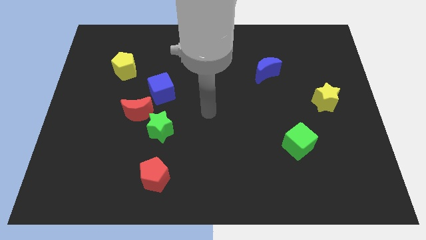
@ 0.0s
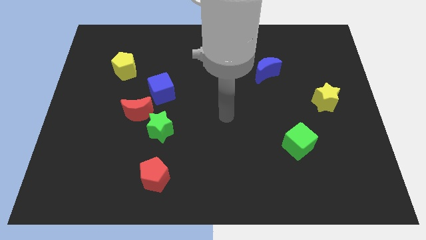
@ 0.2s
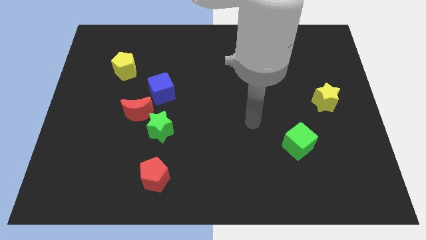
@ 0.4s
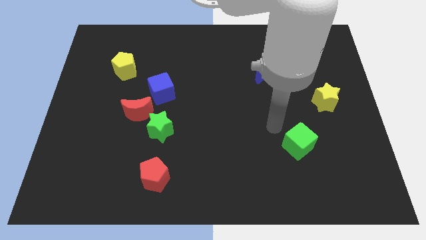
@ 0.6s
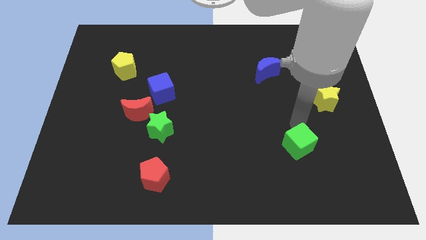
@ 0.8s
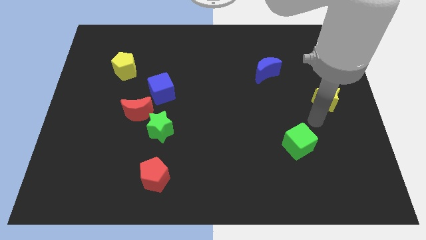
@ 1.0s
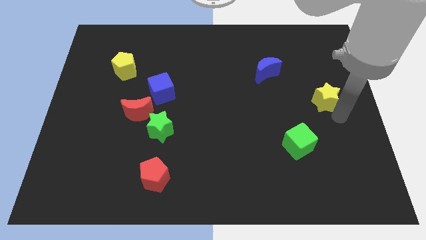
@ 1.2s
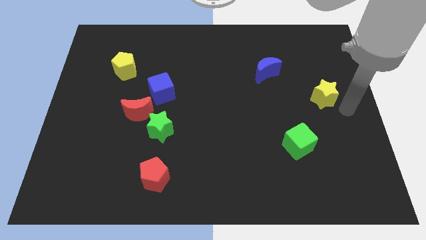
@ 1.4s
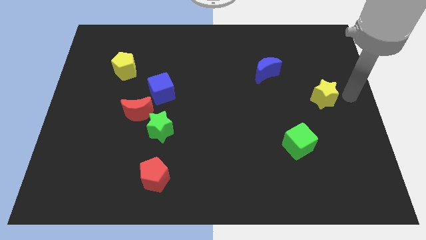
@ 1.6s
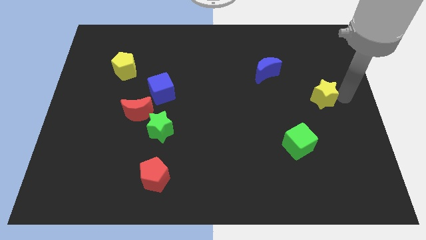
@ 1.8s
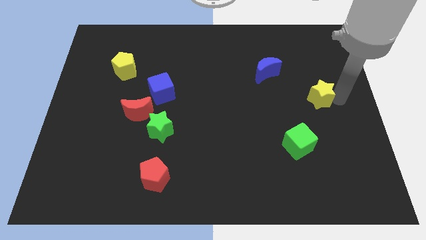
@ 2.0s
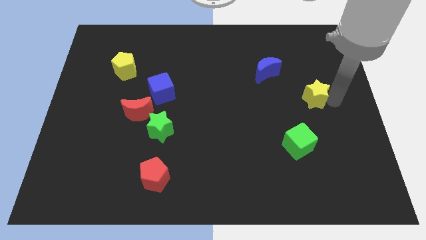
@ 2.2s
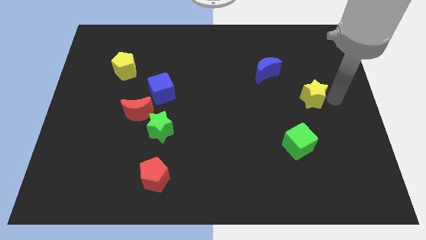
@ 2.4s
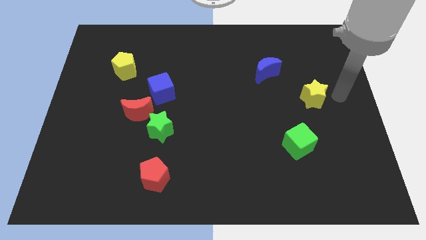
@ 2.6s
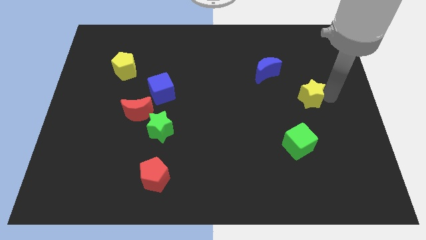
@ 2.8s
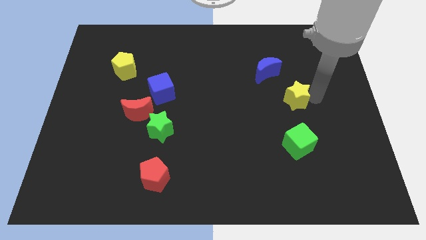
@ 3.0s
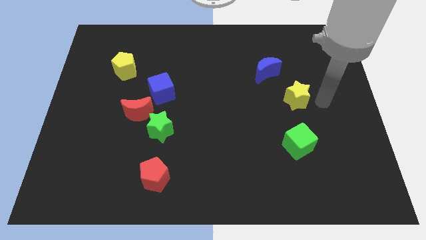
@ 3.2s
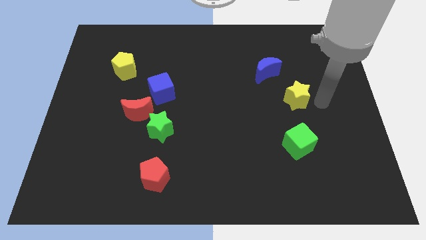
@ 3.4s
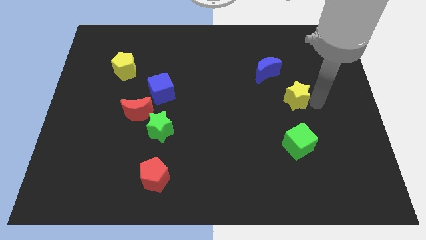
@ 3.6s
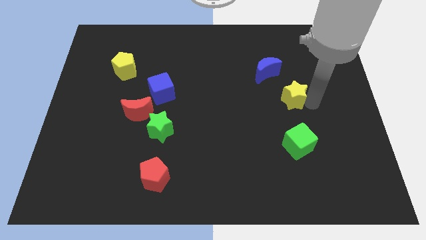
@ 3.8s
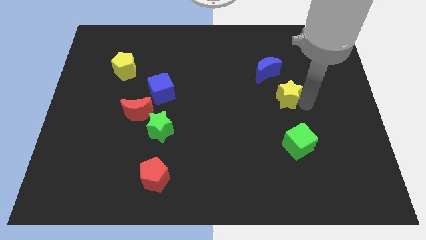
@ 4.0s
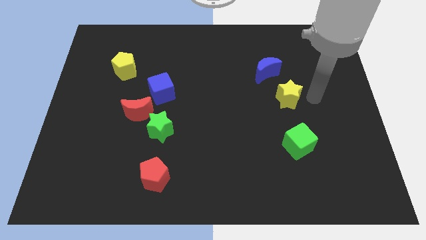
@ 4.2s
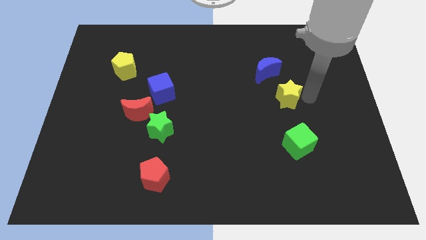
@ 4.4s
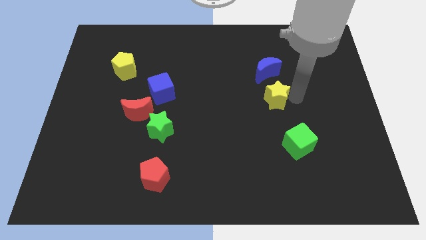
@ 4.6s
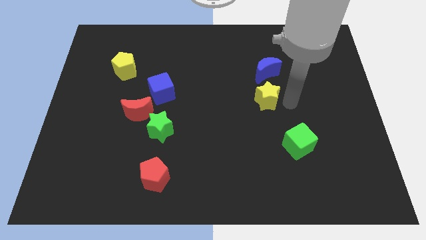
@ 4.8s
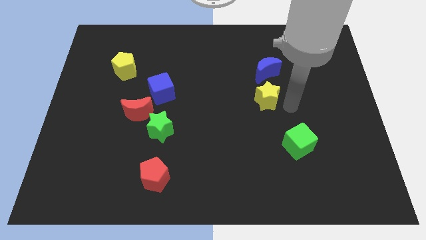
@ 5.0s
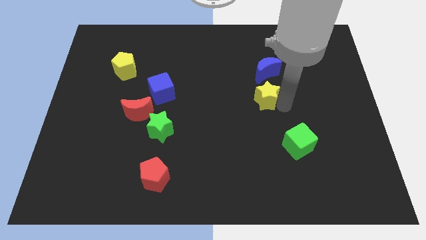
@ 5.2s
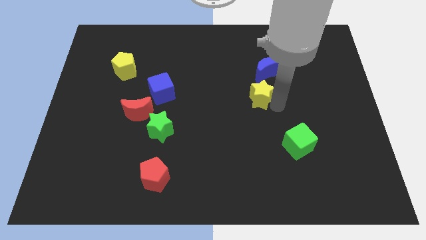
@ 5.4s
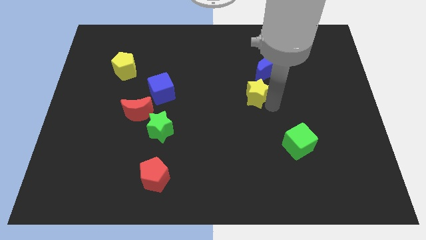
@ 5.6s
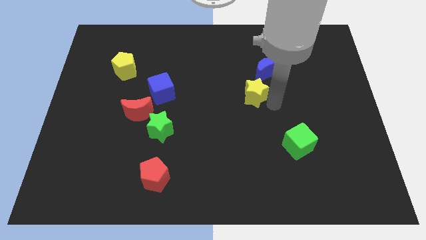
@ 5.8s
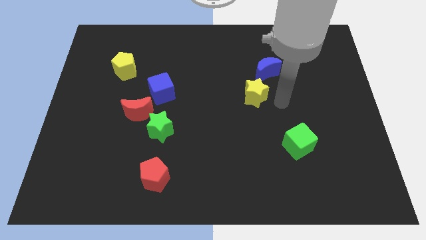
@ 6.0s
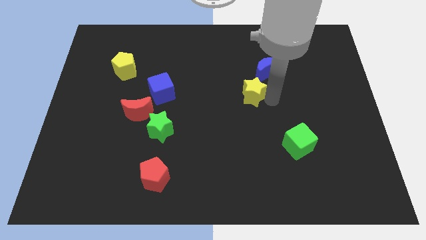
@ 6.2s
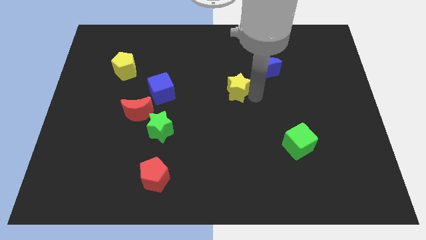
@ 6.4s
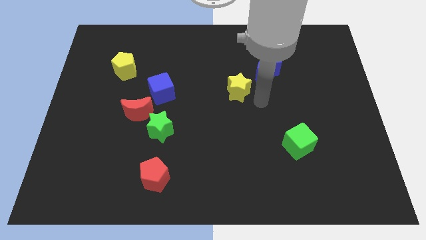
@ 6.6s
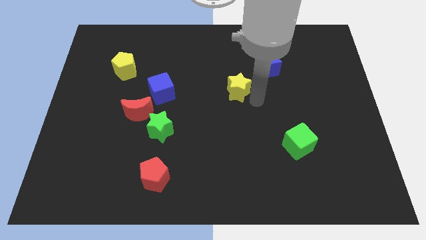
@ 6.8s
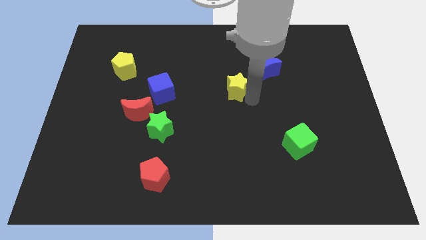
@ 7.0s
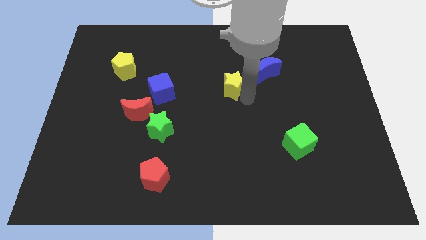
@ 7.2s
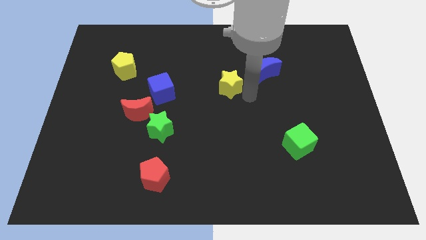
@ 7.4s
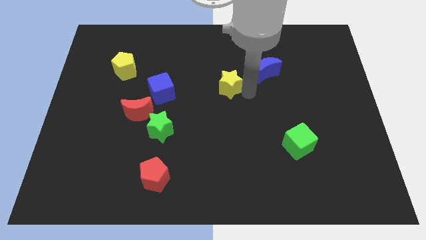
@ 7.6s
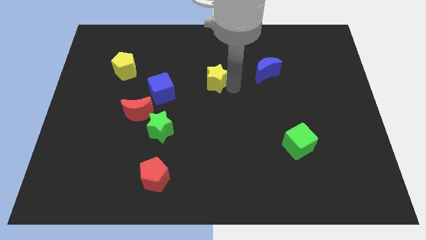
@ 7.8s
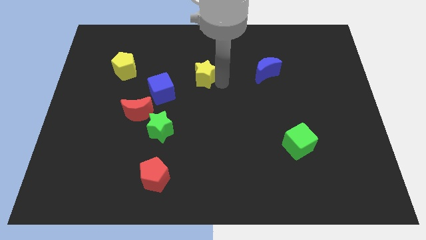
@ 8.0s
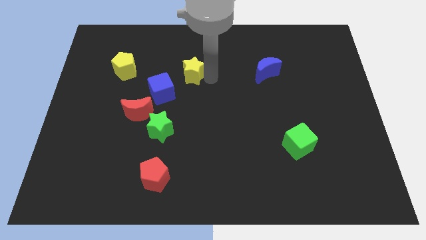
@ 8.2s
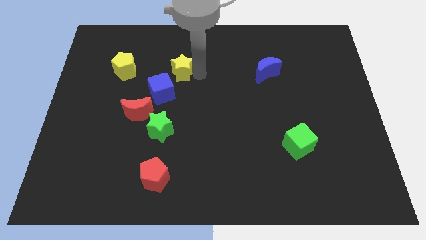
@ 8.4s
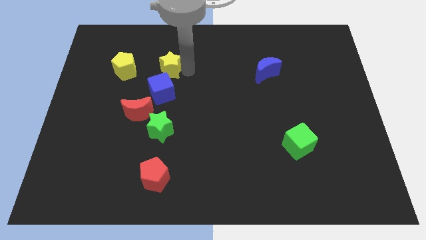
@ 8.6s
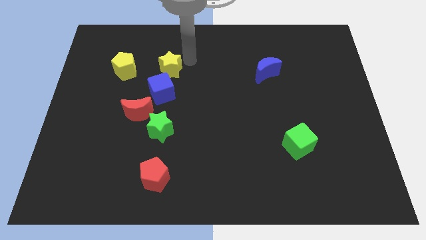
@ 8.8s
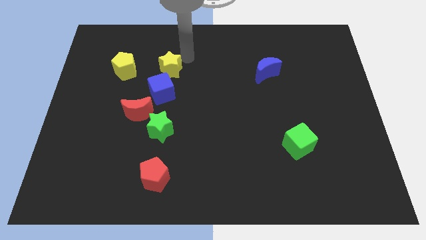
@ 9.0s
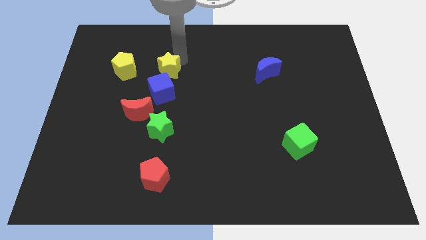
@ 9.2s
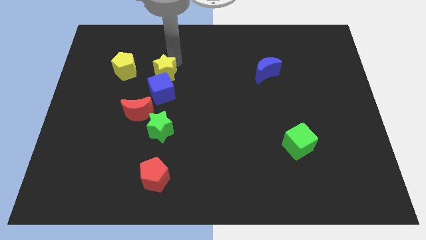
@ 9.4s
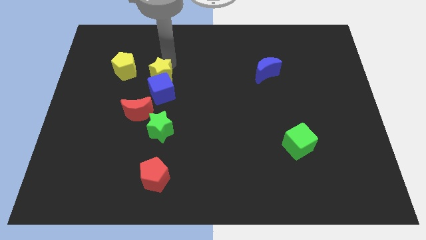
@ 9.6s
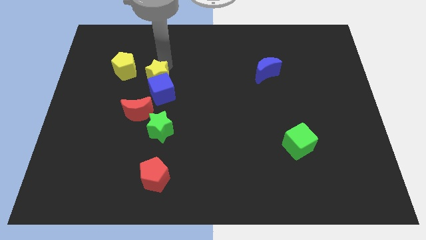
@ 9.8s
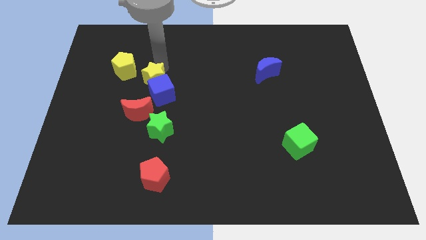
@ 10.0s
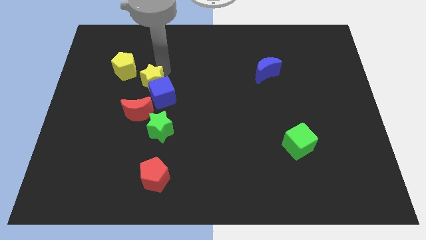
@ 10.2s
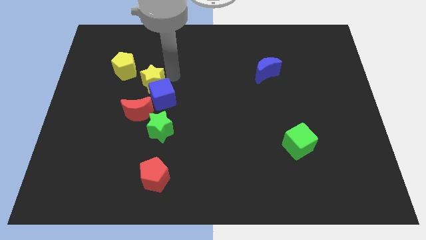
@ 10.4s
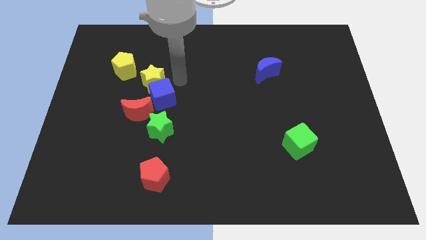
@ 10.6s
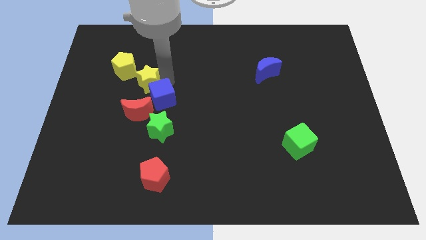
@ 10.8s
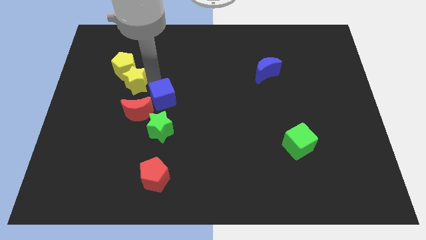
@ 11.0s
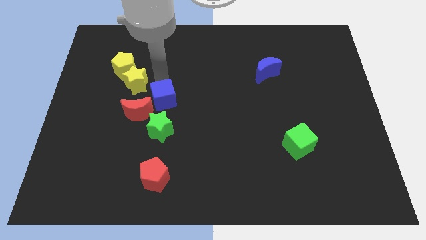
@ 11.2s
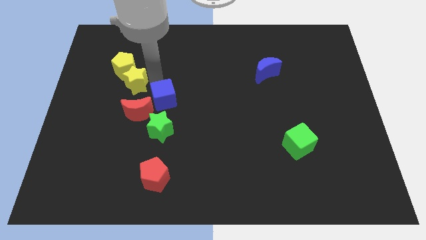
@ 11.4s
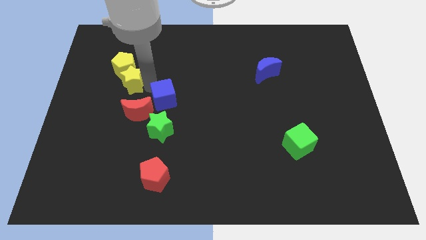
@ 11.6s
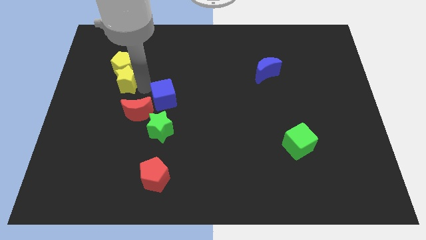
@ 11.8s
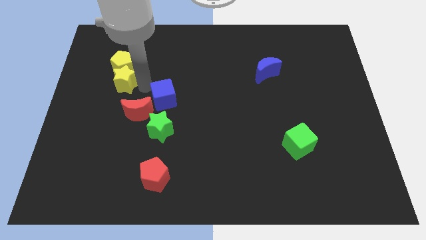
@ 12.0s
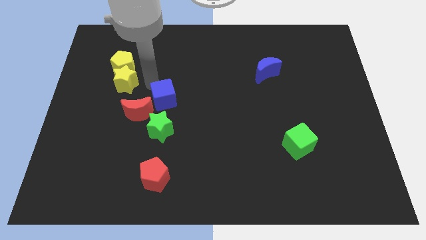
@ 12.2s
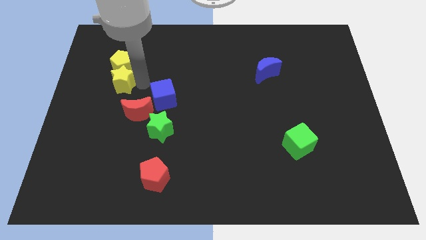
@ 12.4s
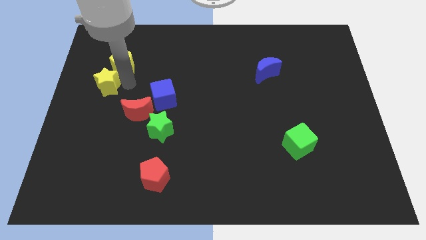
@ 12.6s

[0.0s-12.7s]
put the yellow star to the center left

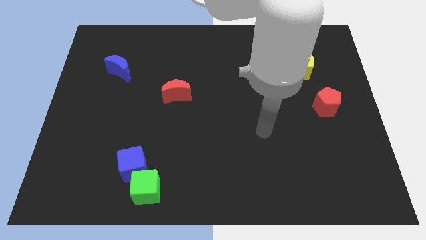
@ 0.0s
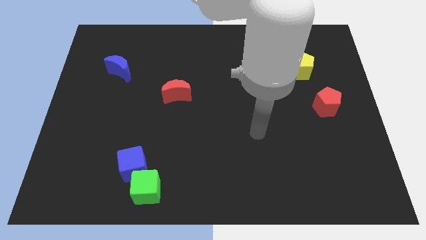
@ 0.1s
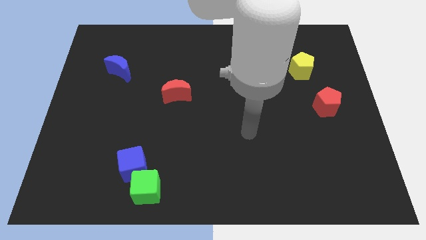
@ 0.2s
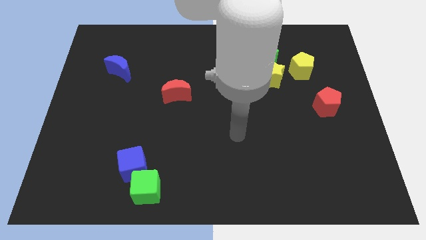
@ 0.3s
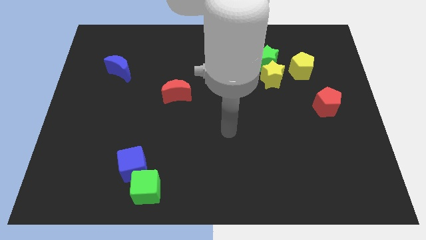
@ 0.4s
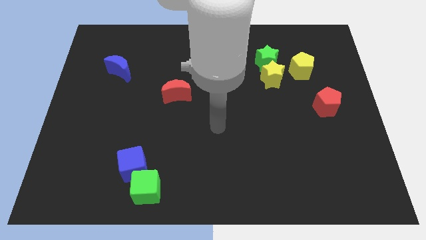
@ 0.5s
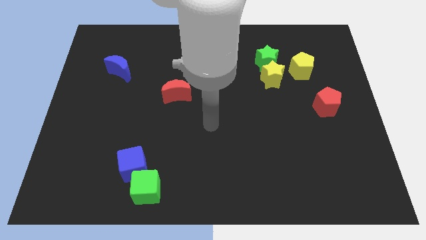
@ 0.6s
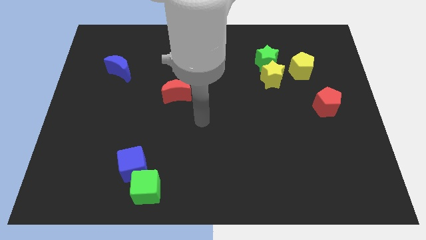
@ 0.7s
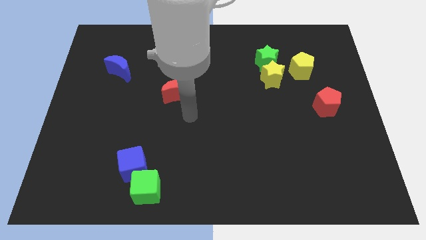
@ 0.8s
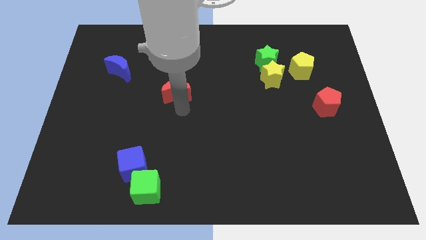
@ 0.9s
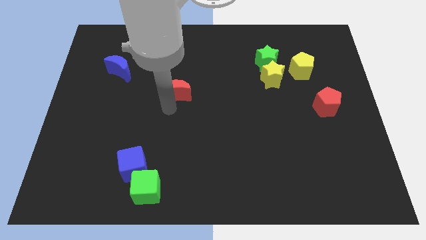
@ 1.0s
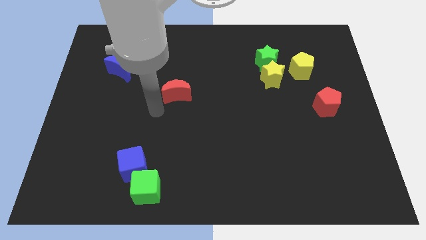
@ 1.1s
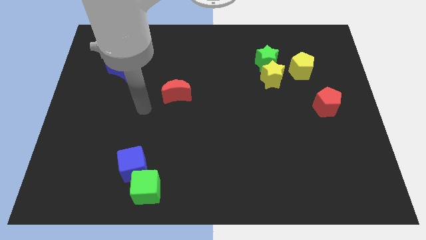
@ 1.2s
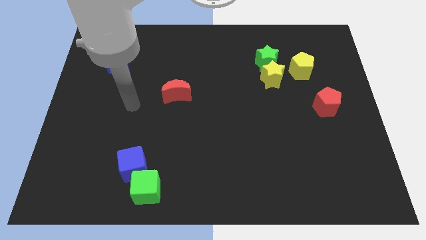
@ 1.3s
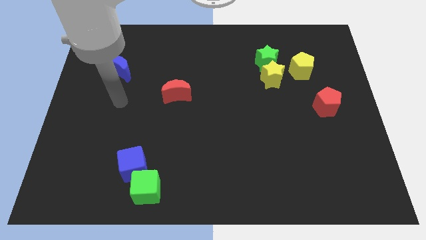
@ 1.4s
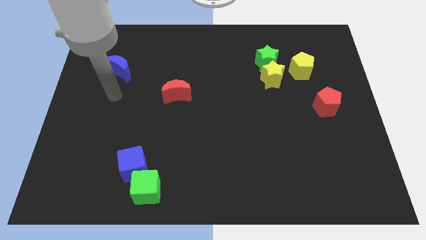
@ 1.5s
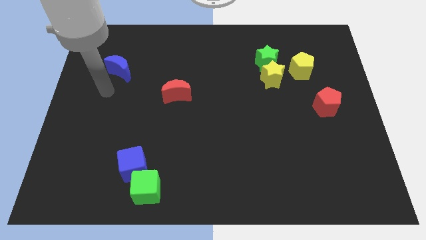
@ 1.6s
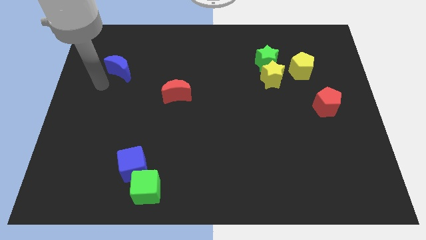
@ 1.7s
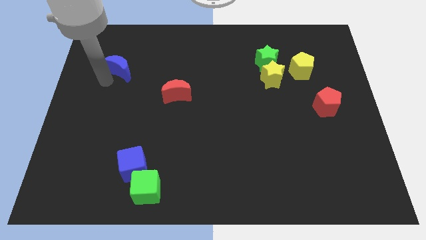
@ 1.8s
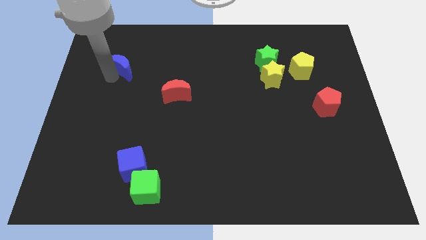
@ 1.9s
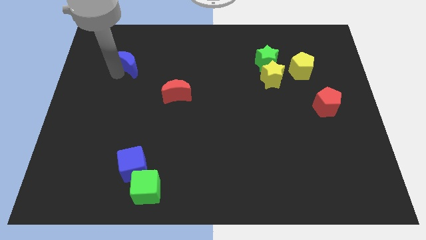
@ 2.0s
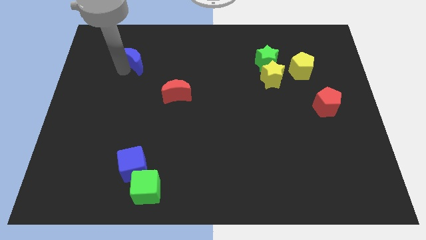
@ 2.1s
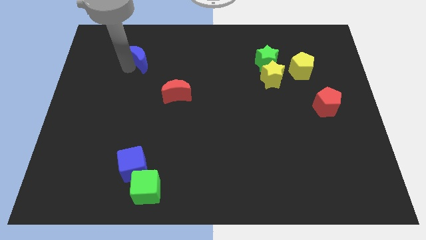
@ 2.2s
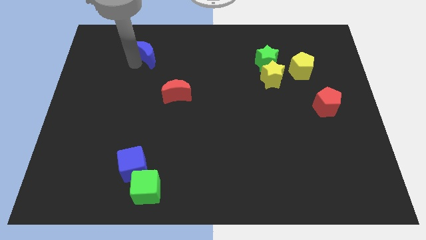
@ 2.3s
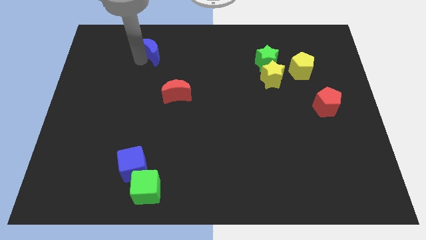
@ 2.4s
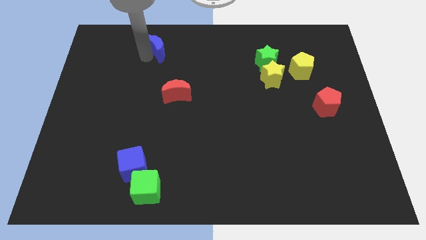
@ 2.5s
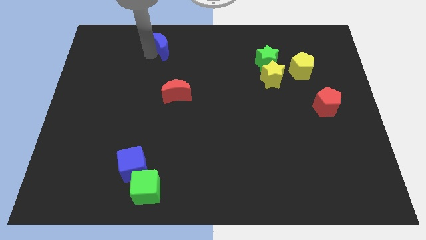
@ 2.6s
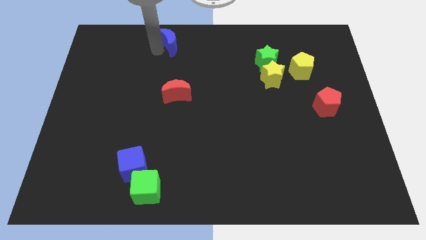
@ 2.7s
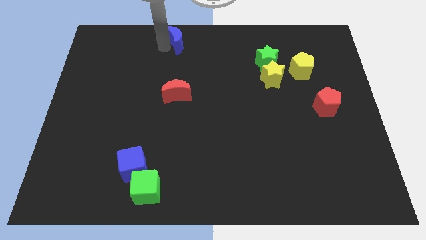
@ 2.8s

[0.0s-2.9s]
put the blue moon to the top side
